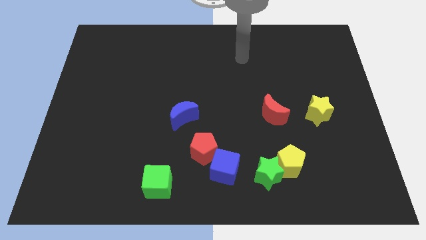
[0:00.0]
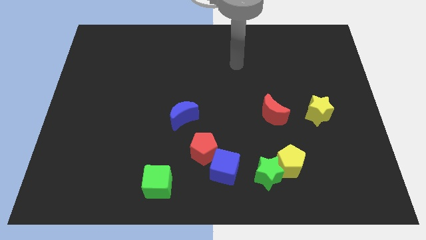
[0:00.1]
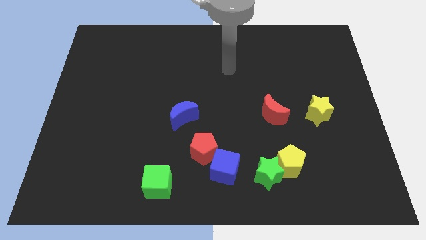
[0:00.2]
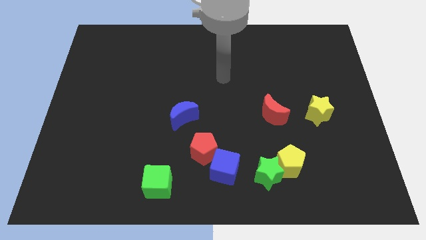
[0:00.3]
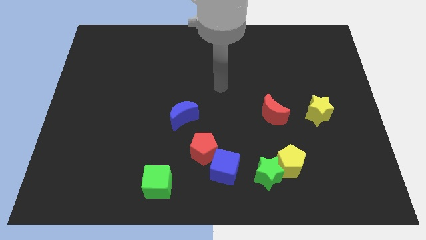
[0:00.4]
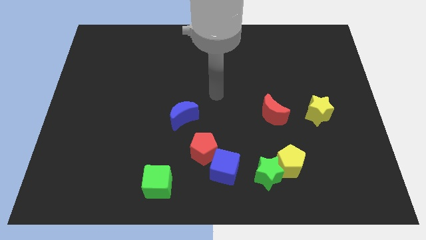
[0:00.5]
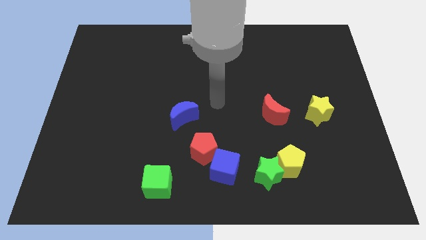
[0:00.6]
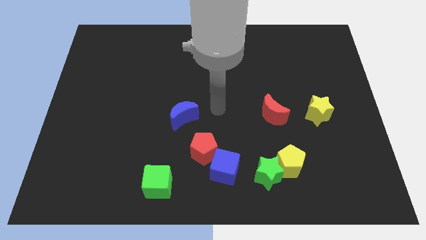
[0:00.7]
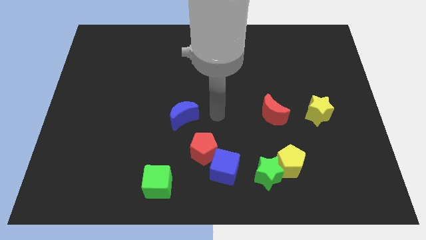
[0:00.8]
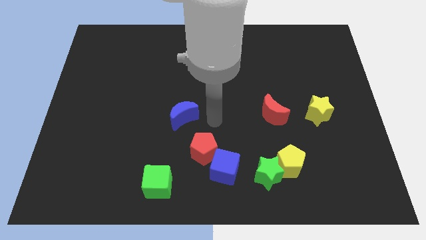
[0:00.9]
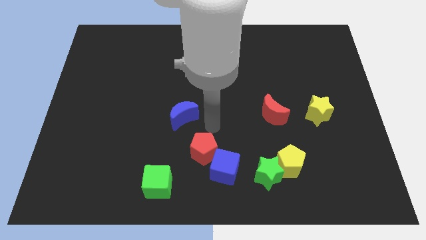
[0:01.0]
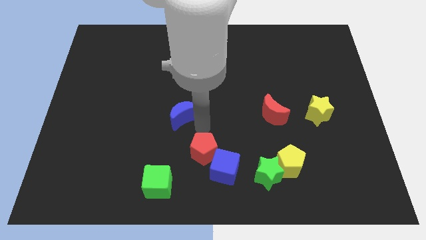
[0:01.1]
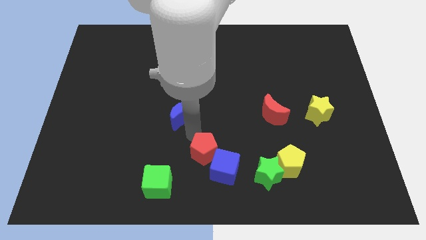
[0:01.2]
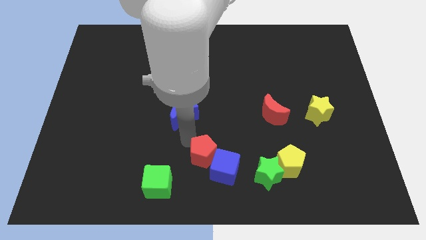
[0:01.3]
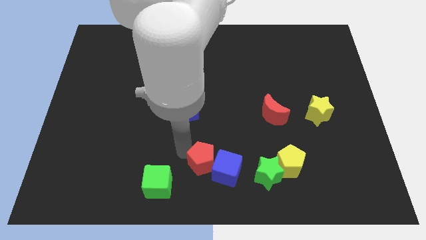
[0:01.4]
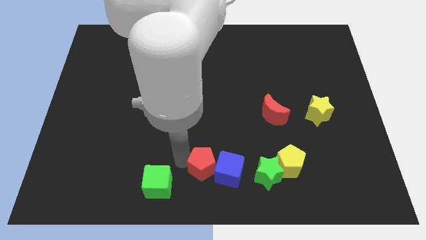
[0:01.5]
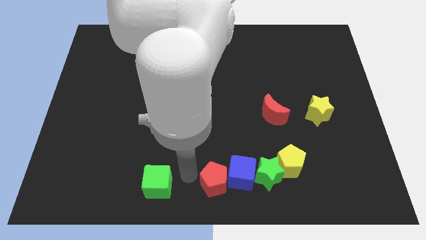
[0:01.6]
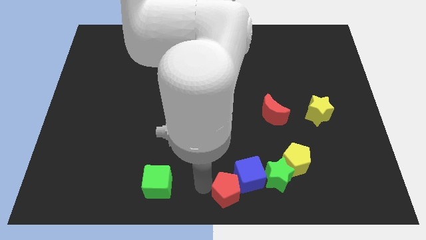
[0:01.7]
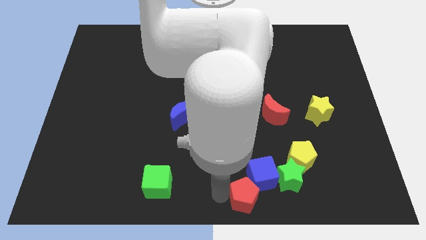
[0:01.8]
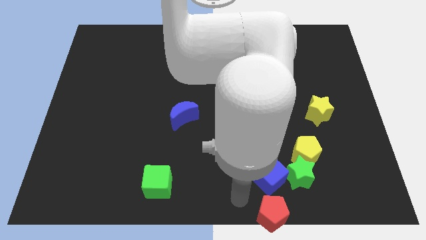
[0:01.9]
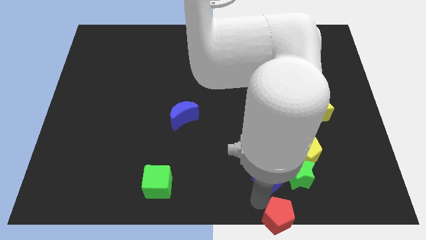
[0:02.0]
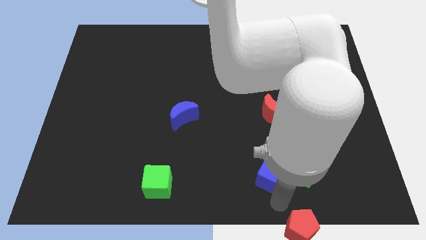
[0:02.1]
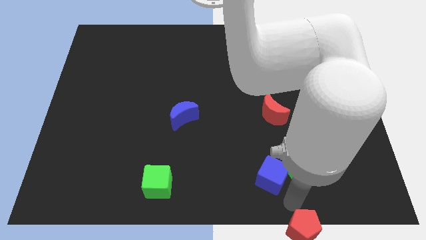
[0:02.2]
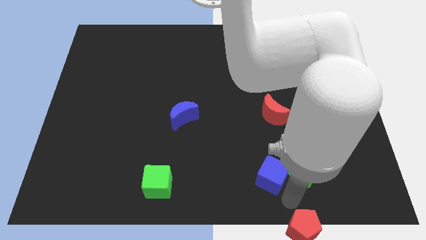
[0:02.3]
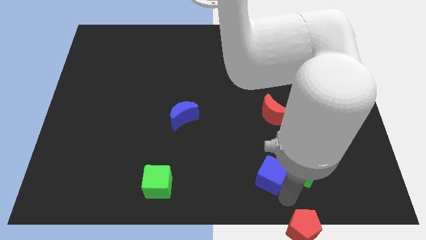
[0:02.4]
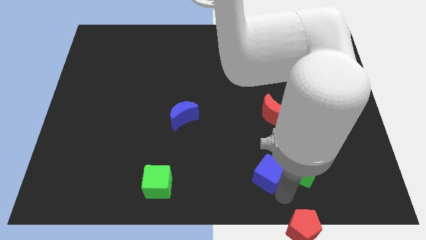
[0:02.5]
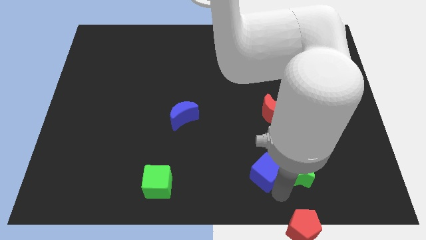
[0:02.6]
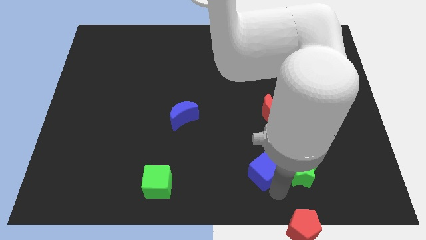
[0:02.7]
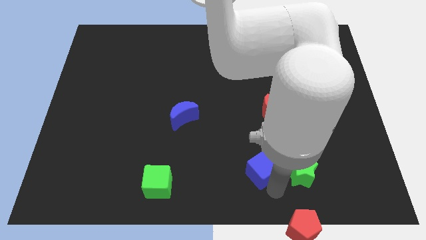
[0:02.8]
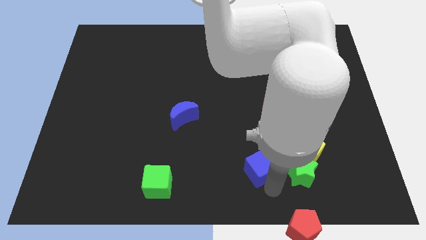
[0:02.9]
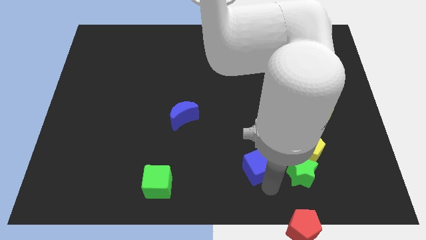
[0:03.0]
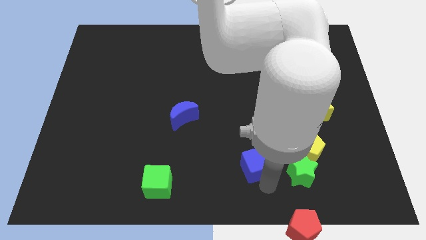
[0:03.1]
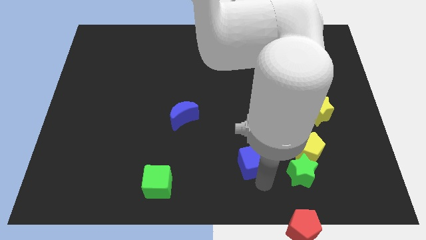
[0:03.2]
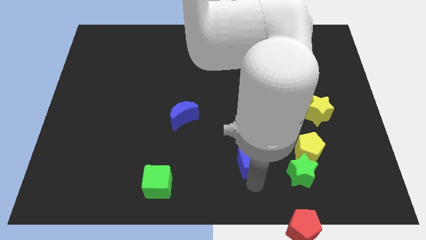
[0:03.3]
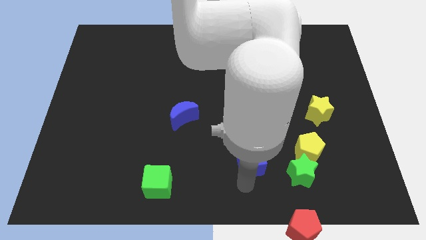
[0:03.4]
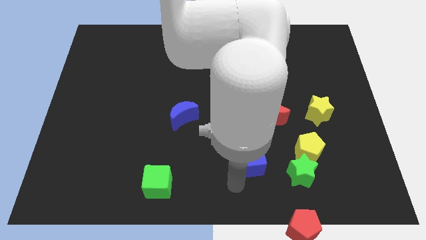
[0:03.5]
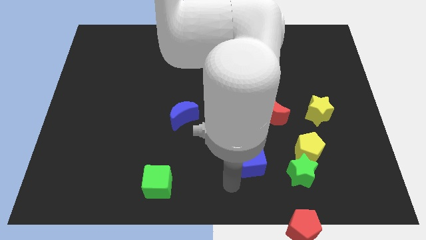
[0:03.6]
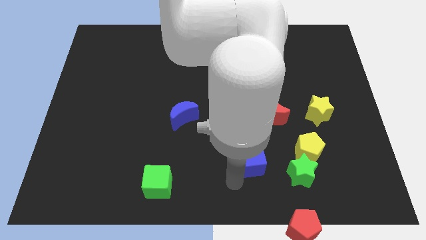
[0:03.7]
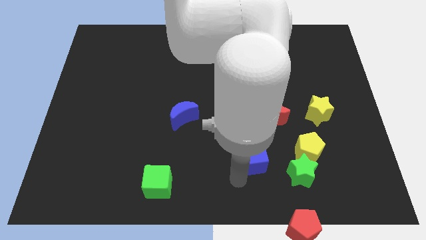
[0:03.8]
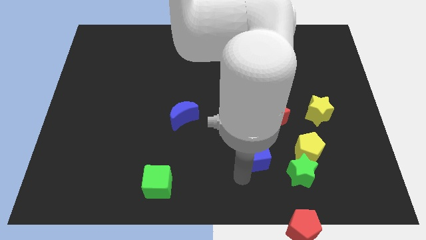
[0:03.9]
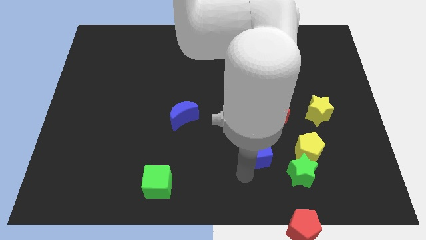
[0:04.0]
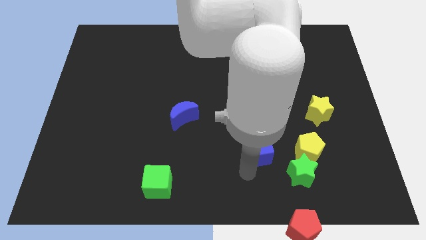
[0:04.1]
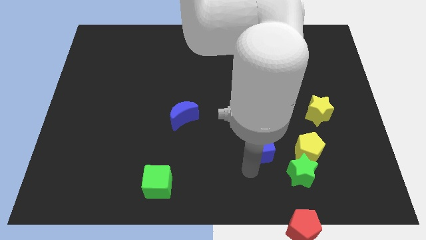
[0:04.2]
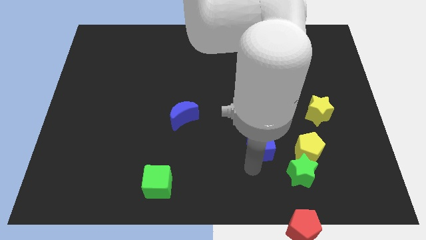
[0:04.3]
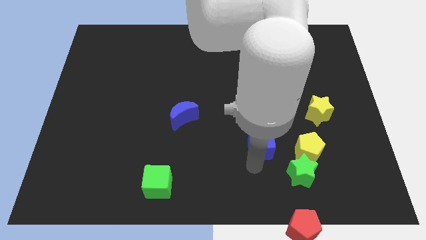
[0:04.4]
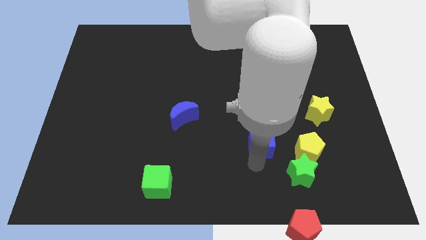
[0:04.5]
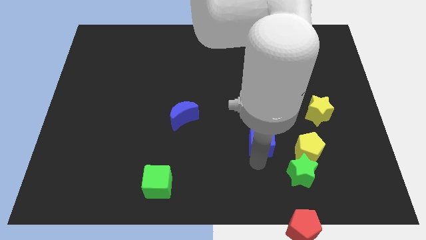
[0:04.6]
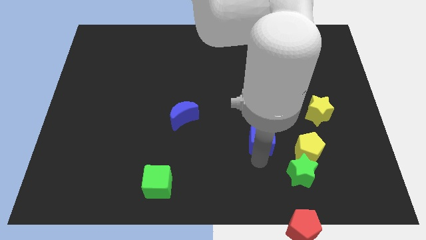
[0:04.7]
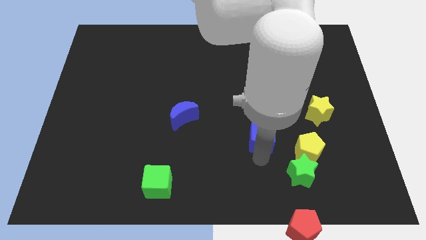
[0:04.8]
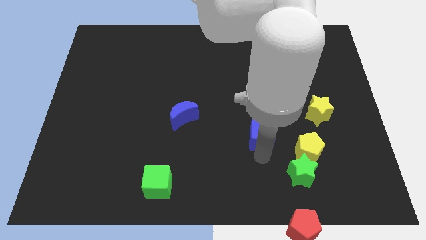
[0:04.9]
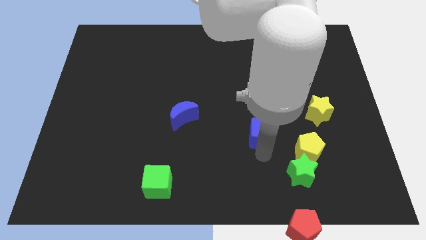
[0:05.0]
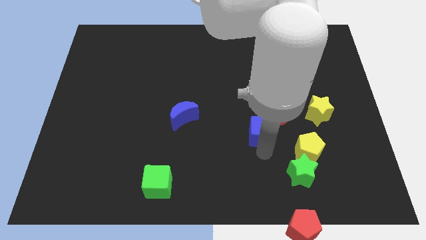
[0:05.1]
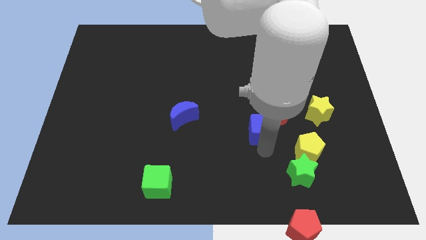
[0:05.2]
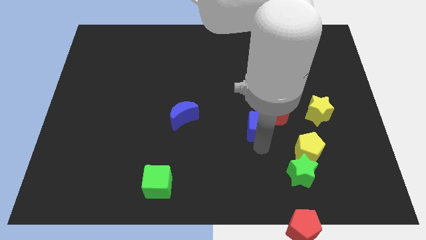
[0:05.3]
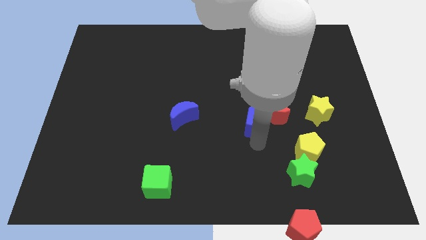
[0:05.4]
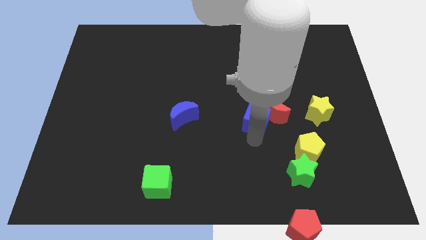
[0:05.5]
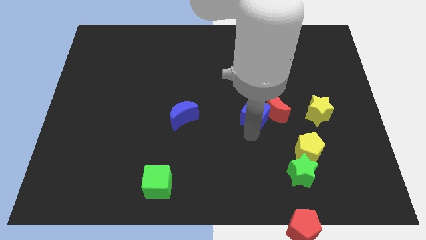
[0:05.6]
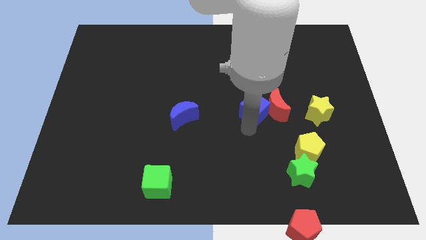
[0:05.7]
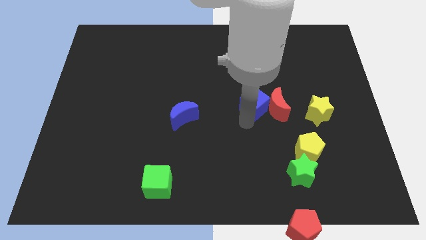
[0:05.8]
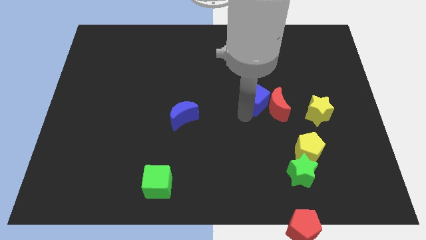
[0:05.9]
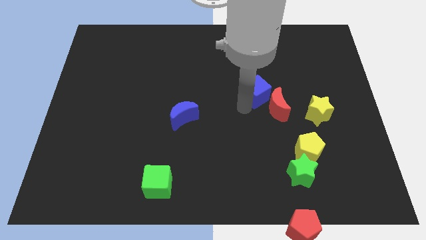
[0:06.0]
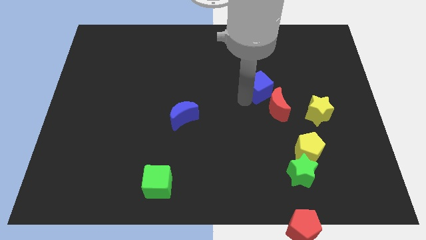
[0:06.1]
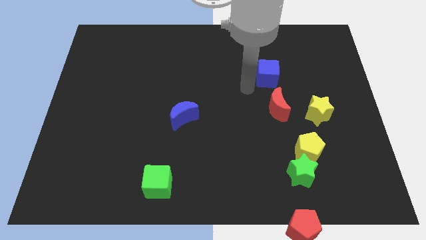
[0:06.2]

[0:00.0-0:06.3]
move the blue cube upwards and to the right diagonally

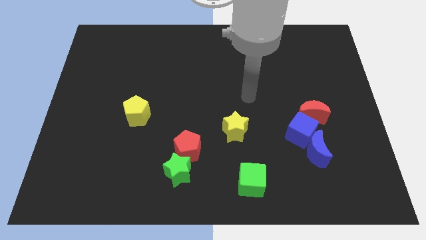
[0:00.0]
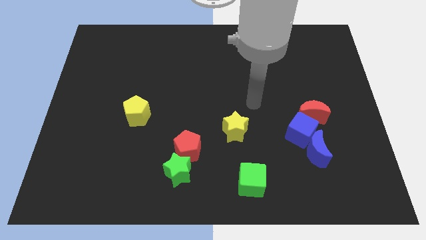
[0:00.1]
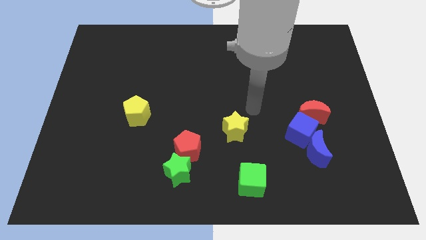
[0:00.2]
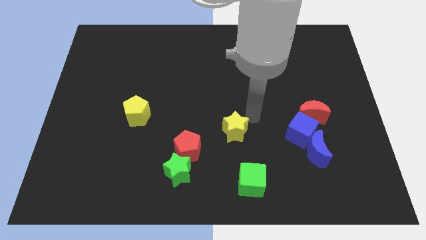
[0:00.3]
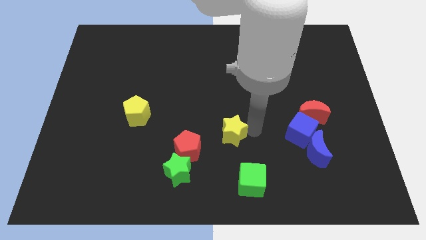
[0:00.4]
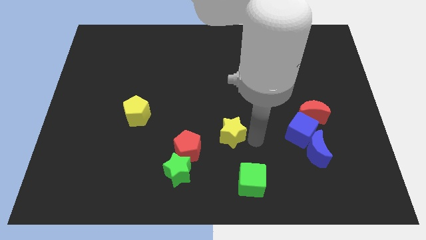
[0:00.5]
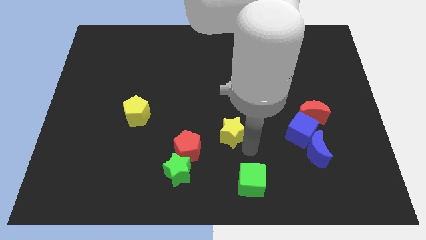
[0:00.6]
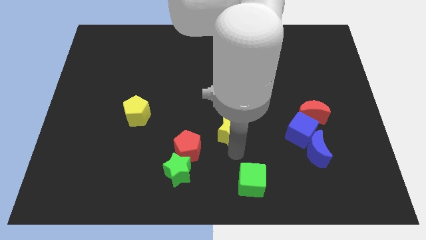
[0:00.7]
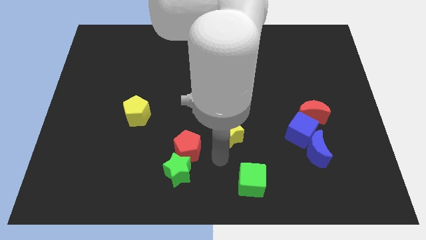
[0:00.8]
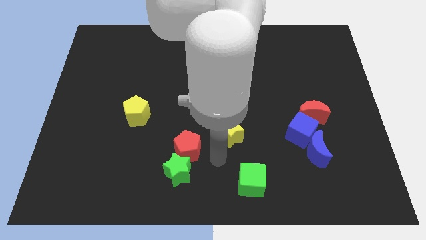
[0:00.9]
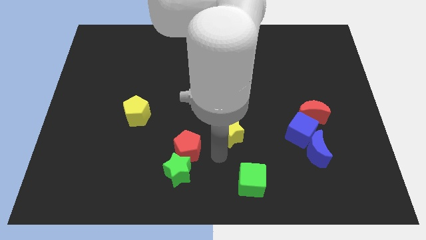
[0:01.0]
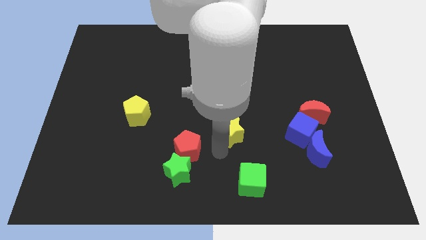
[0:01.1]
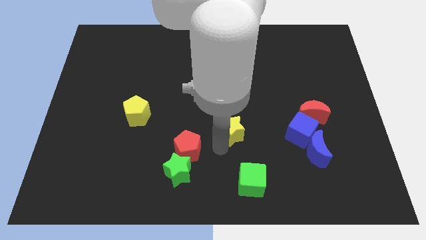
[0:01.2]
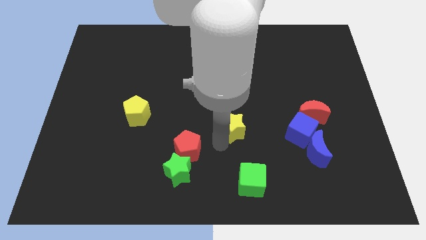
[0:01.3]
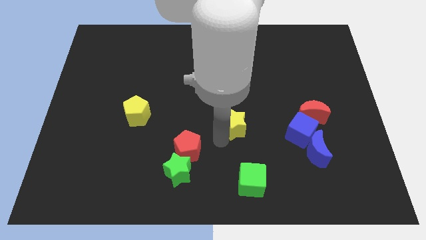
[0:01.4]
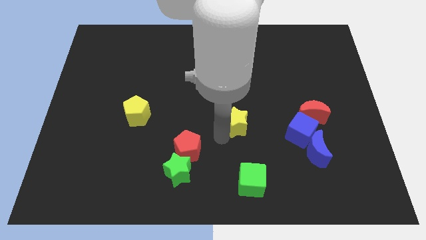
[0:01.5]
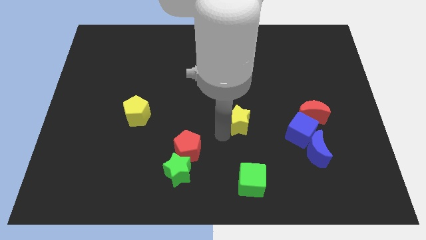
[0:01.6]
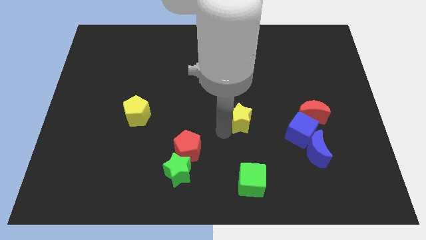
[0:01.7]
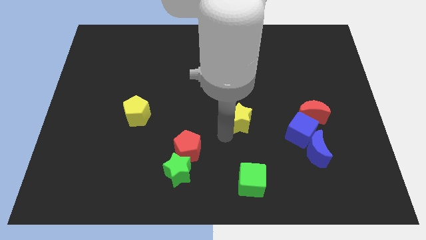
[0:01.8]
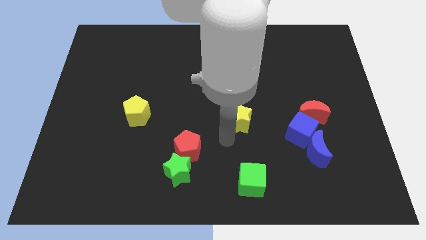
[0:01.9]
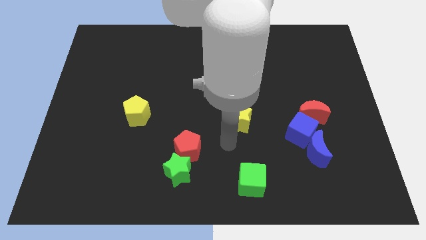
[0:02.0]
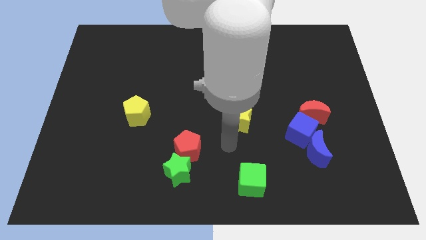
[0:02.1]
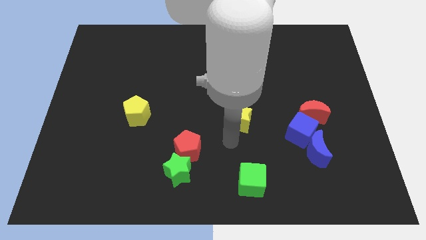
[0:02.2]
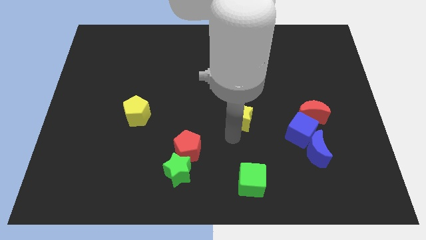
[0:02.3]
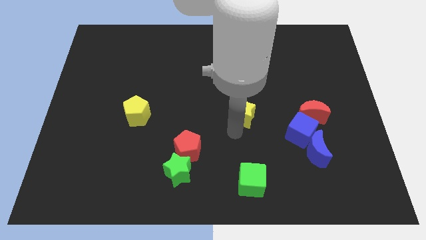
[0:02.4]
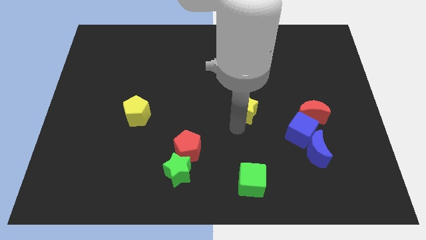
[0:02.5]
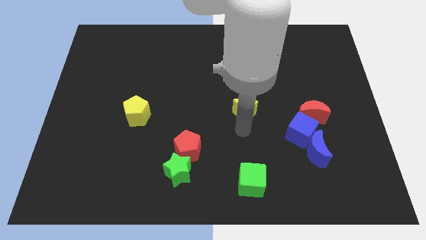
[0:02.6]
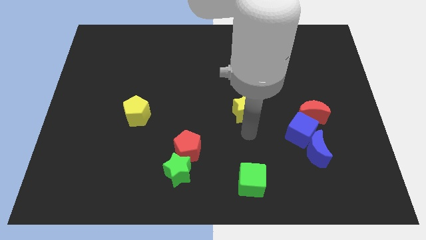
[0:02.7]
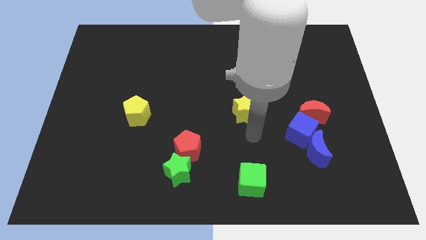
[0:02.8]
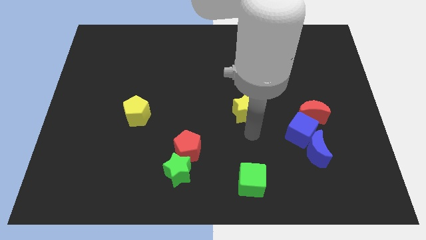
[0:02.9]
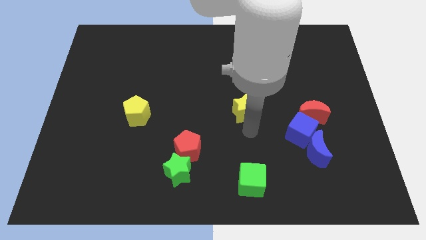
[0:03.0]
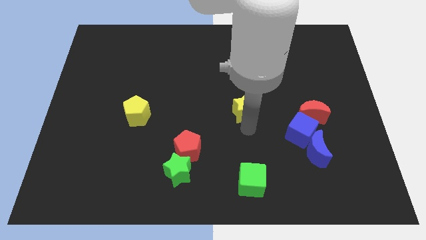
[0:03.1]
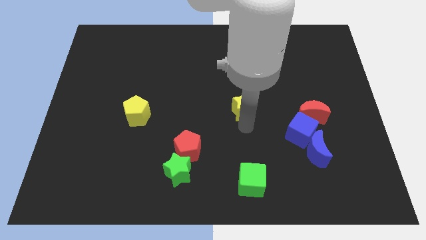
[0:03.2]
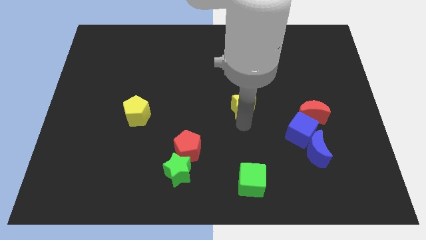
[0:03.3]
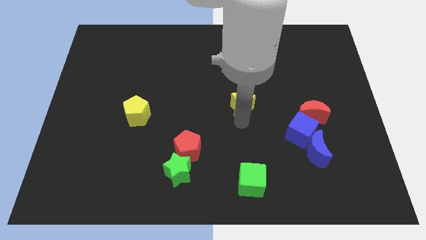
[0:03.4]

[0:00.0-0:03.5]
push the yellow star upwards a bit
